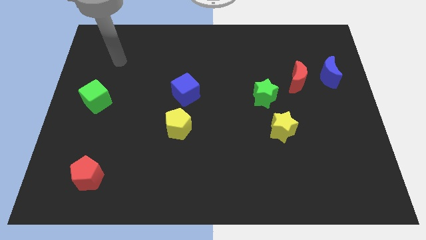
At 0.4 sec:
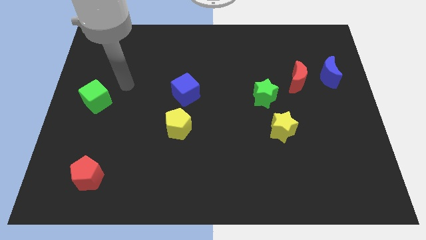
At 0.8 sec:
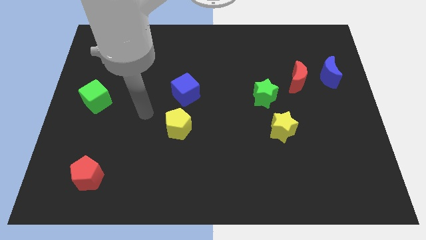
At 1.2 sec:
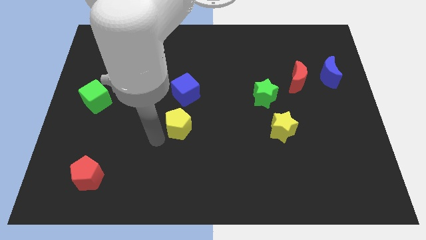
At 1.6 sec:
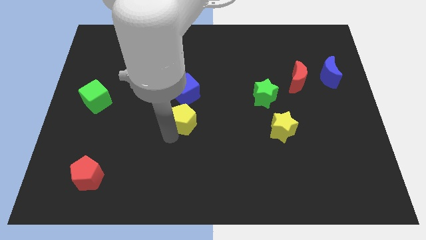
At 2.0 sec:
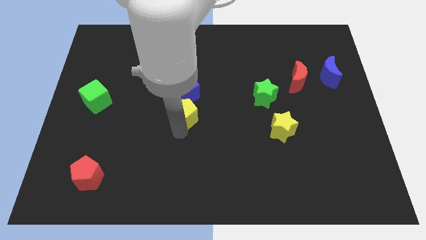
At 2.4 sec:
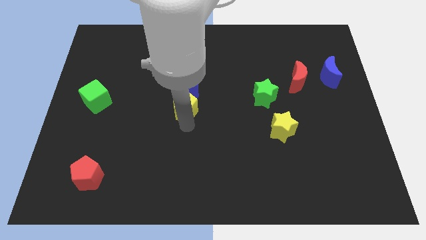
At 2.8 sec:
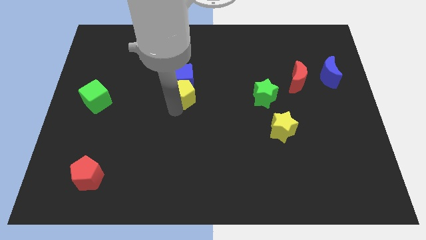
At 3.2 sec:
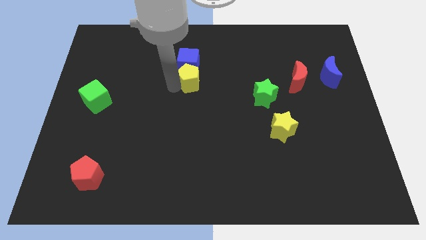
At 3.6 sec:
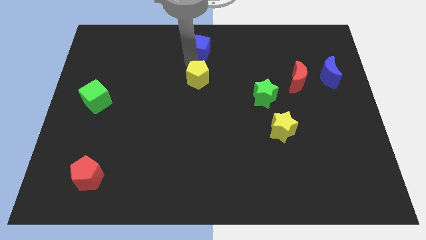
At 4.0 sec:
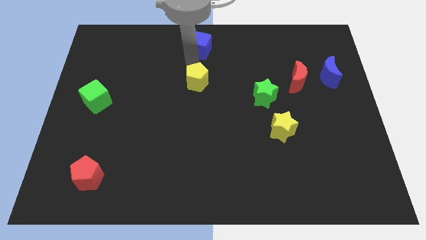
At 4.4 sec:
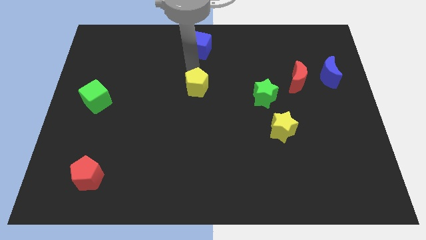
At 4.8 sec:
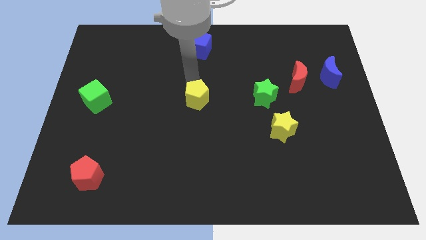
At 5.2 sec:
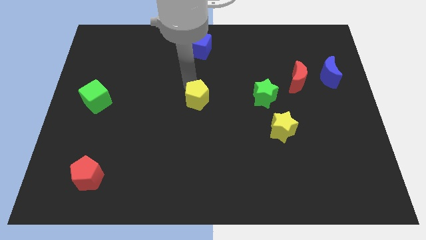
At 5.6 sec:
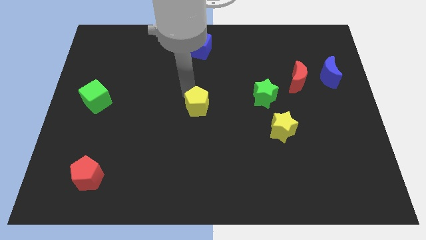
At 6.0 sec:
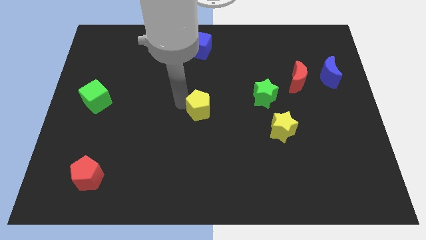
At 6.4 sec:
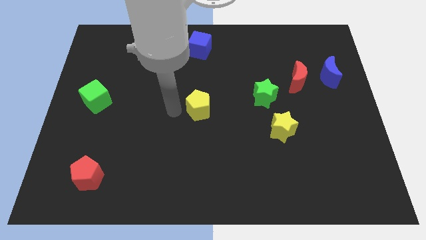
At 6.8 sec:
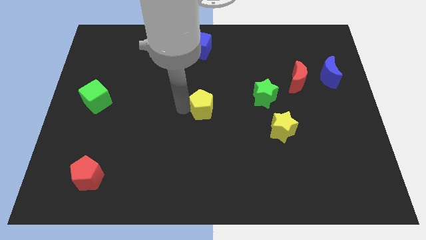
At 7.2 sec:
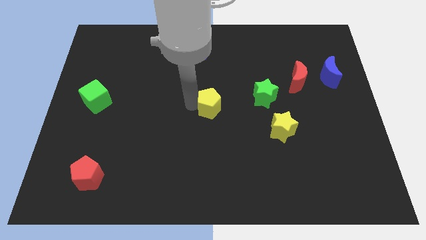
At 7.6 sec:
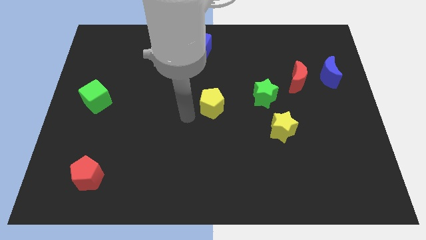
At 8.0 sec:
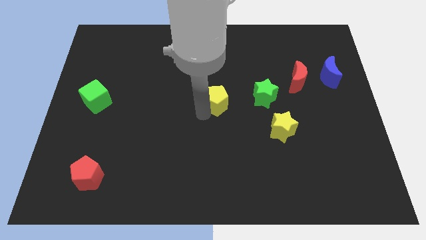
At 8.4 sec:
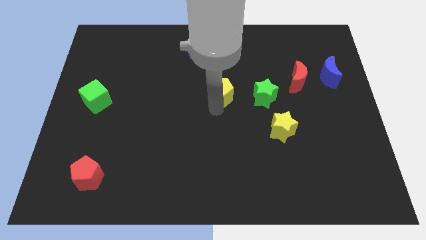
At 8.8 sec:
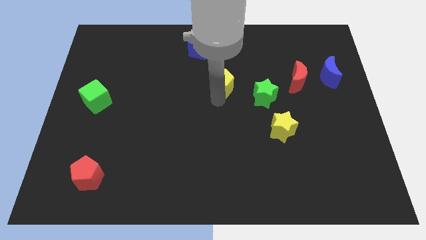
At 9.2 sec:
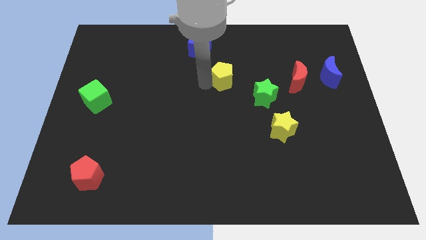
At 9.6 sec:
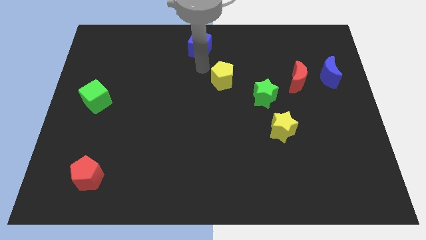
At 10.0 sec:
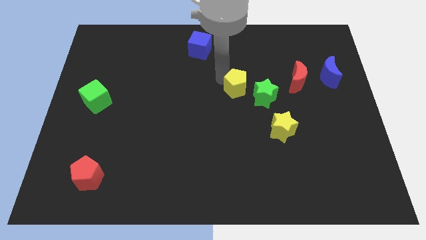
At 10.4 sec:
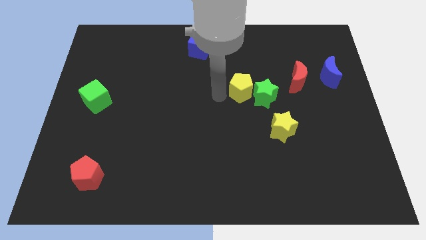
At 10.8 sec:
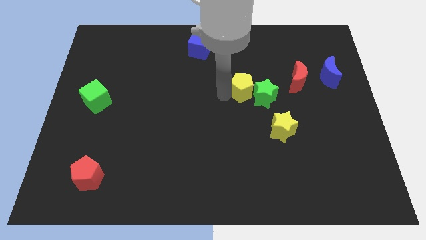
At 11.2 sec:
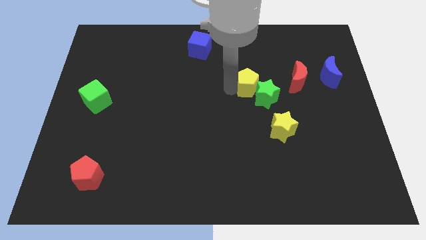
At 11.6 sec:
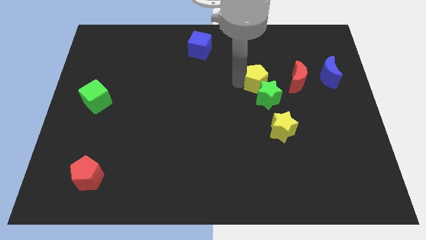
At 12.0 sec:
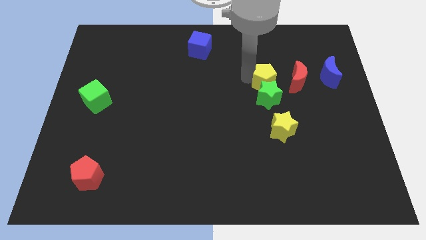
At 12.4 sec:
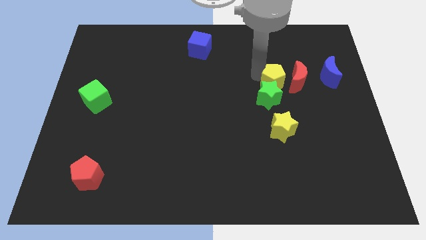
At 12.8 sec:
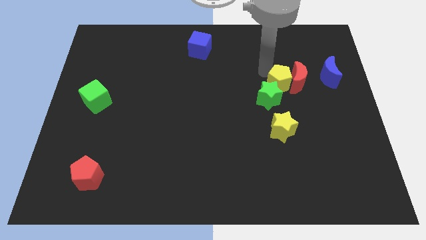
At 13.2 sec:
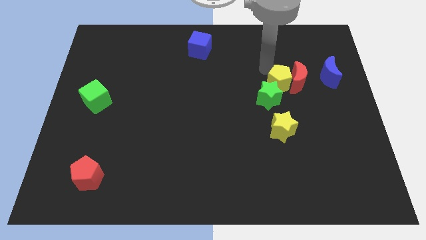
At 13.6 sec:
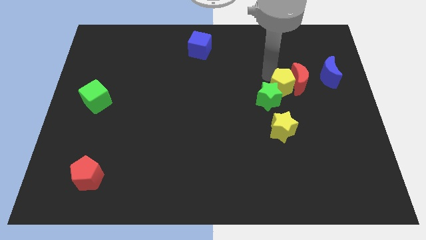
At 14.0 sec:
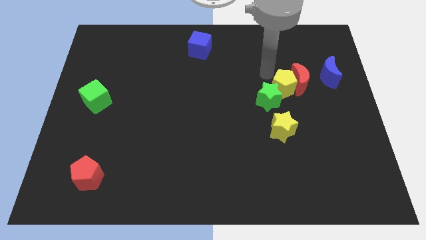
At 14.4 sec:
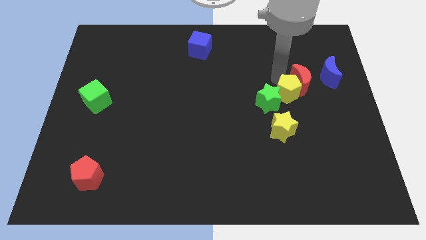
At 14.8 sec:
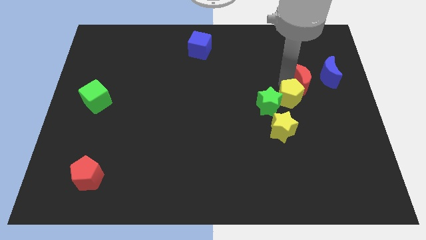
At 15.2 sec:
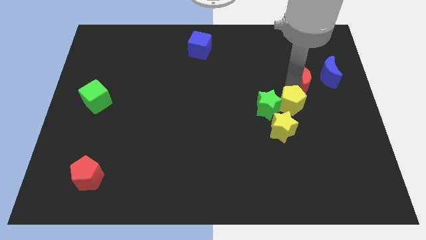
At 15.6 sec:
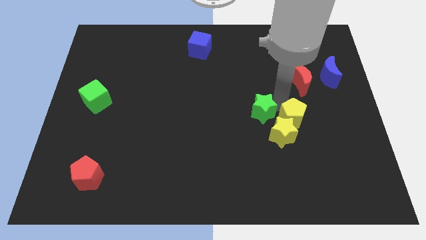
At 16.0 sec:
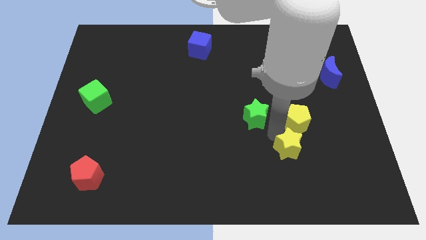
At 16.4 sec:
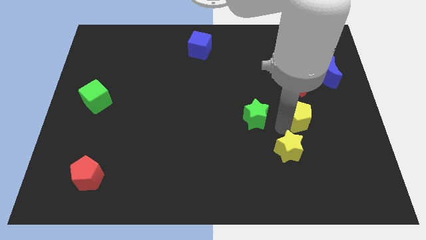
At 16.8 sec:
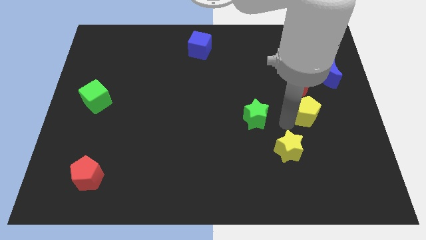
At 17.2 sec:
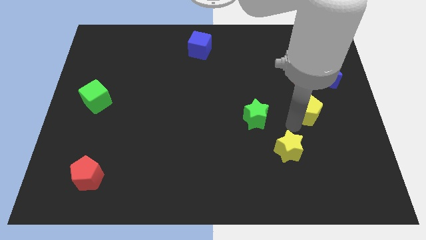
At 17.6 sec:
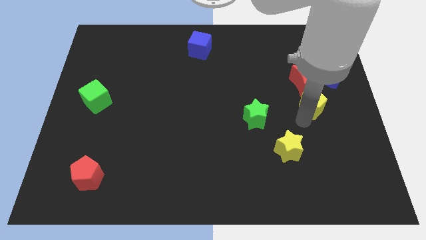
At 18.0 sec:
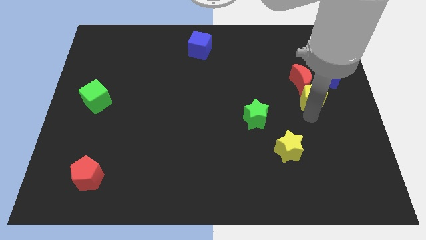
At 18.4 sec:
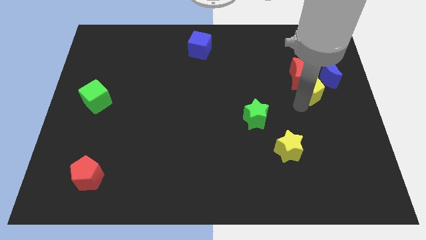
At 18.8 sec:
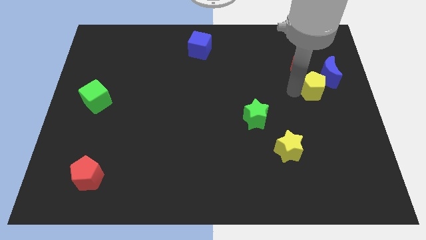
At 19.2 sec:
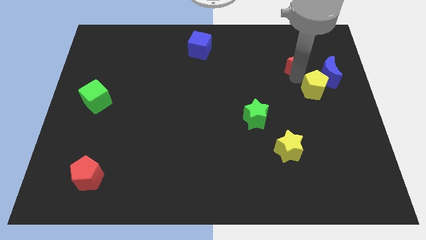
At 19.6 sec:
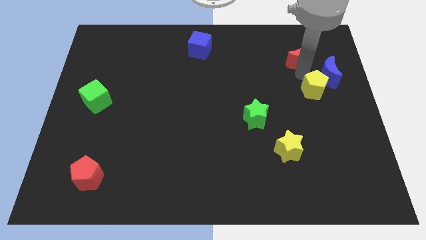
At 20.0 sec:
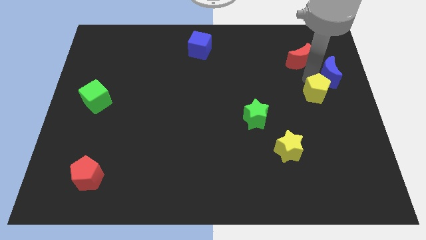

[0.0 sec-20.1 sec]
slide the yellow pentagon to the right side of the board

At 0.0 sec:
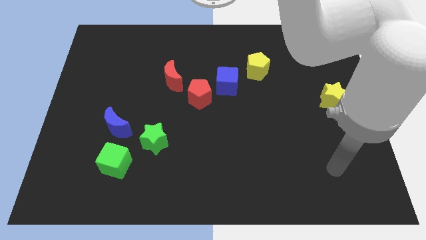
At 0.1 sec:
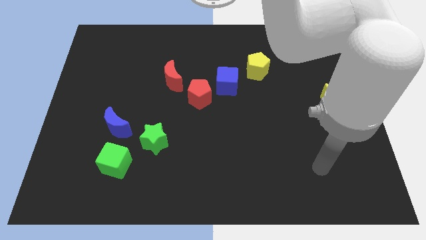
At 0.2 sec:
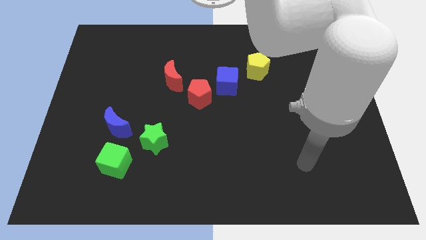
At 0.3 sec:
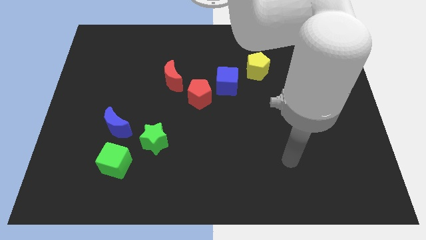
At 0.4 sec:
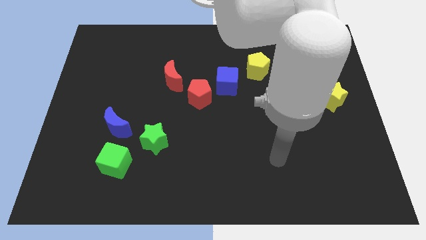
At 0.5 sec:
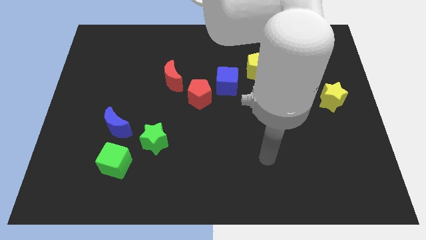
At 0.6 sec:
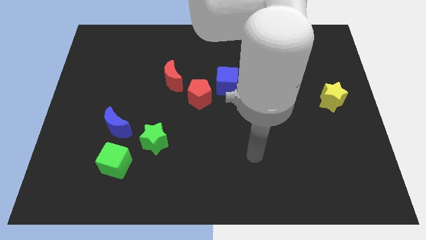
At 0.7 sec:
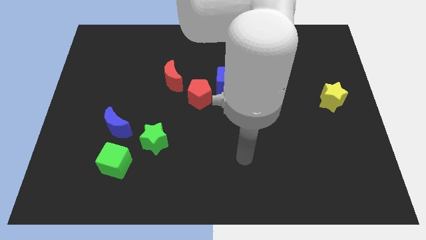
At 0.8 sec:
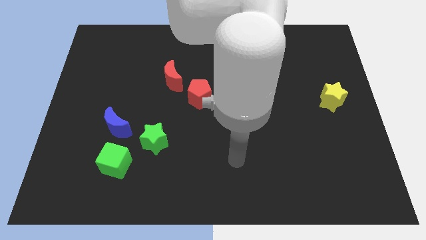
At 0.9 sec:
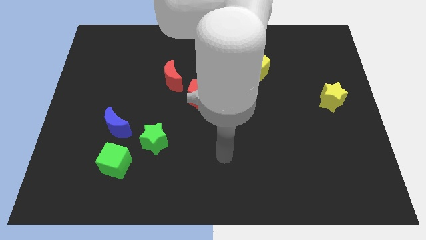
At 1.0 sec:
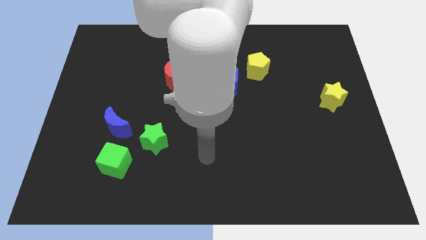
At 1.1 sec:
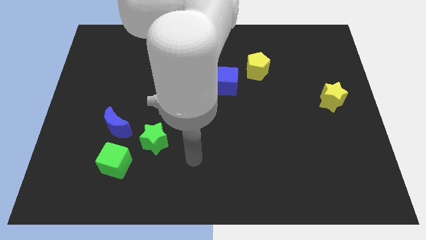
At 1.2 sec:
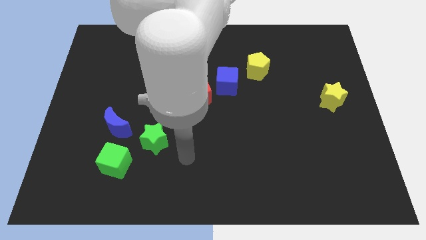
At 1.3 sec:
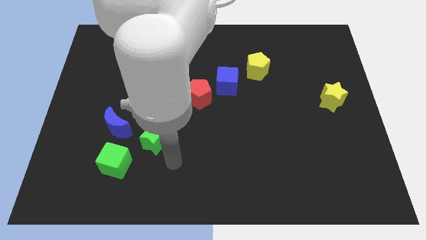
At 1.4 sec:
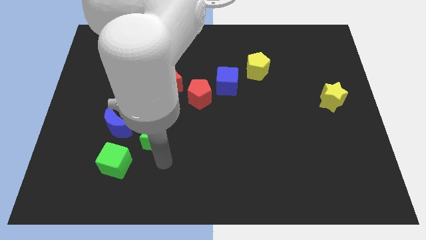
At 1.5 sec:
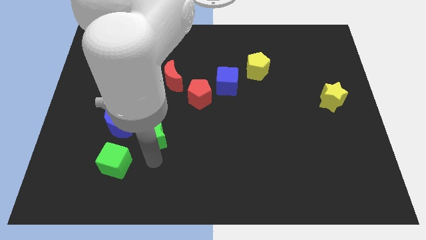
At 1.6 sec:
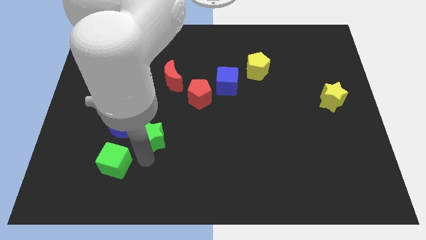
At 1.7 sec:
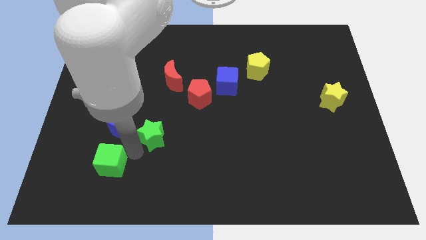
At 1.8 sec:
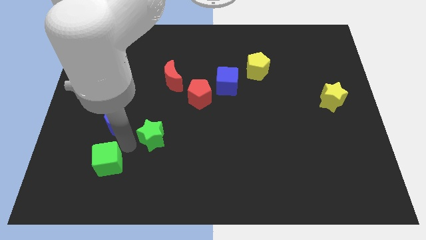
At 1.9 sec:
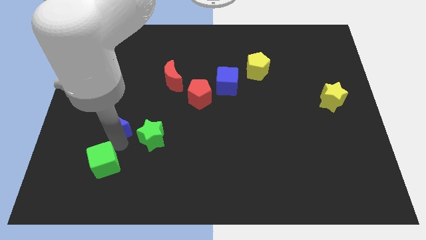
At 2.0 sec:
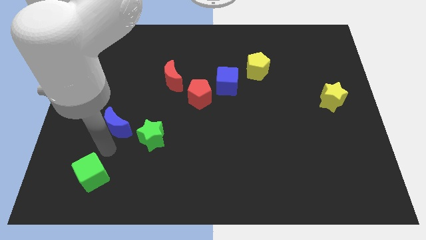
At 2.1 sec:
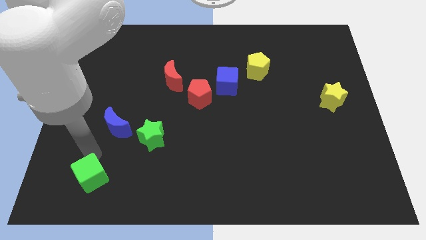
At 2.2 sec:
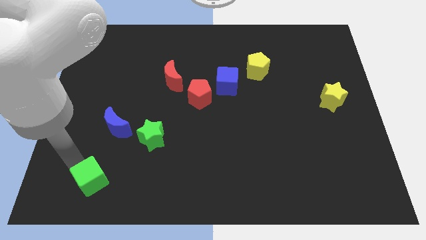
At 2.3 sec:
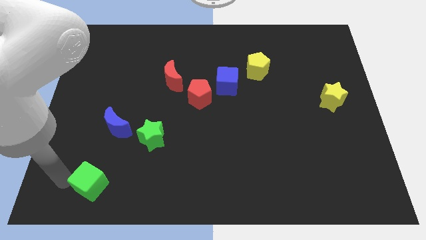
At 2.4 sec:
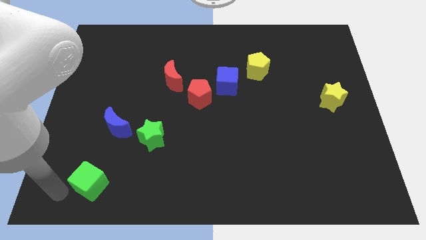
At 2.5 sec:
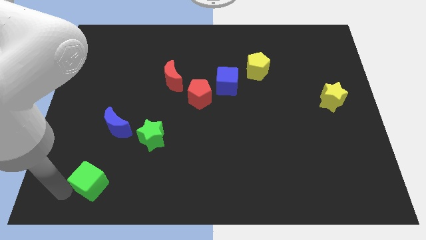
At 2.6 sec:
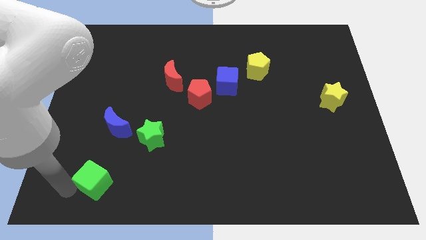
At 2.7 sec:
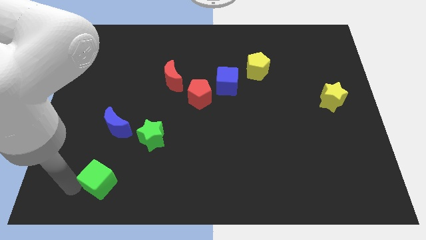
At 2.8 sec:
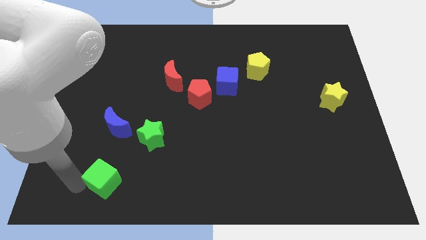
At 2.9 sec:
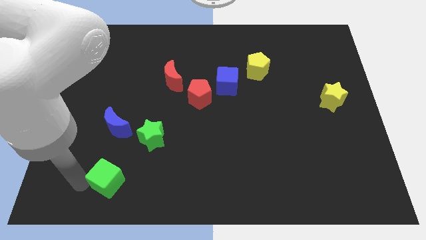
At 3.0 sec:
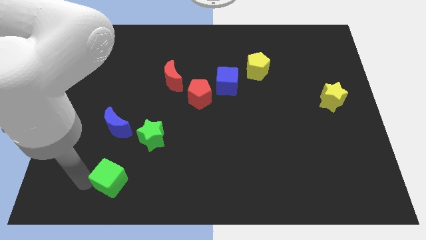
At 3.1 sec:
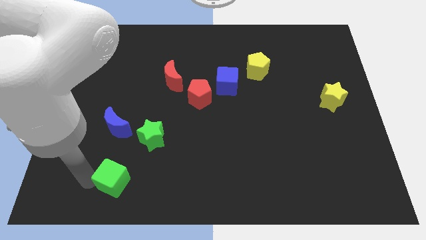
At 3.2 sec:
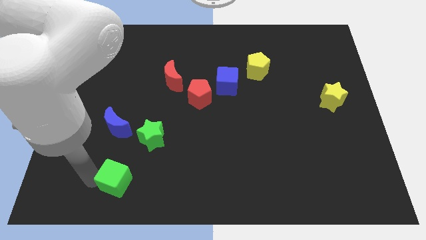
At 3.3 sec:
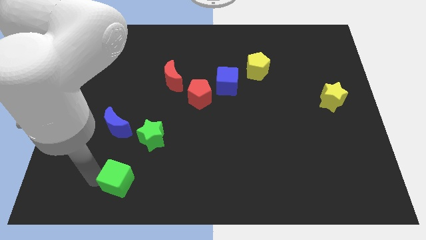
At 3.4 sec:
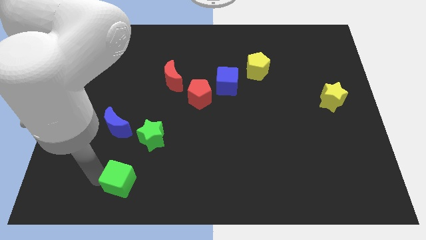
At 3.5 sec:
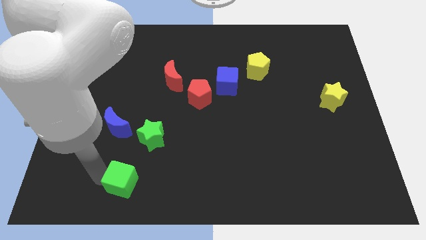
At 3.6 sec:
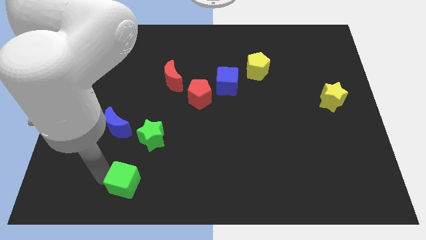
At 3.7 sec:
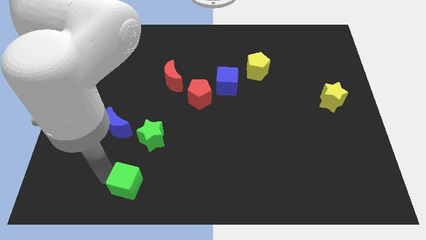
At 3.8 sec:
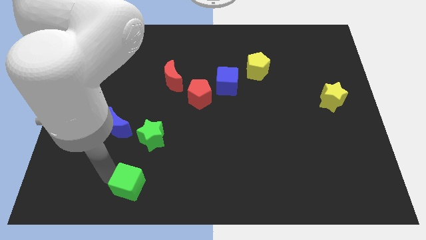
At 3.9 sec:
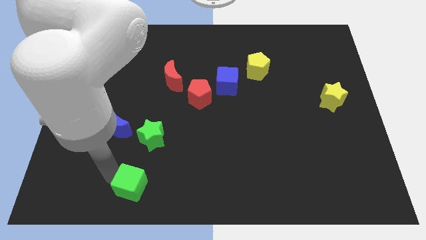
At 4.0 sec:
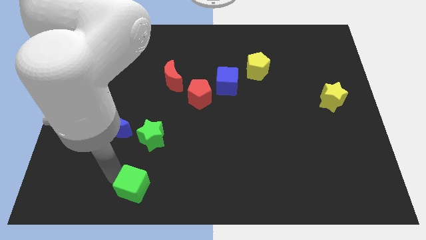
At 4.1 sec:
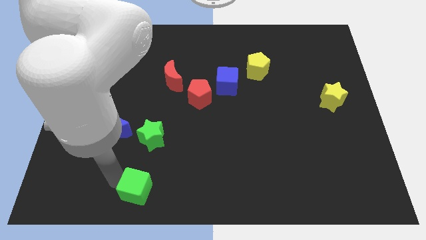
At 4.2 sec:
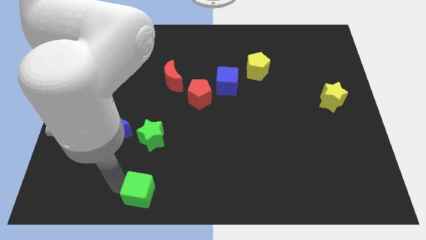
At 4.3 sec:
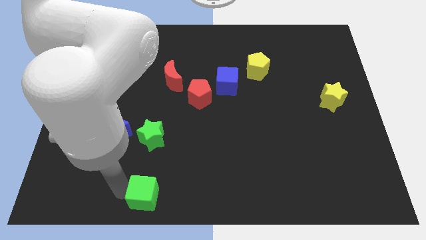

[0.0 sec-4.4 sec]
put the green cube to the bottom side
